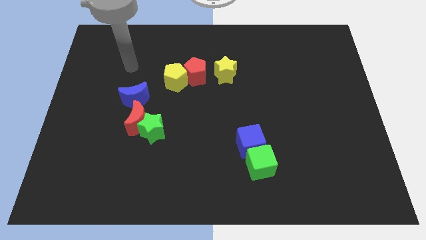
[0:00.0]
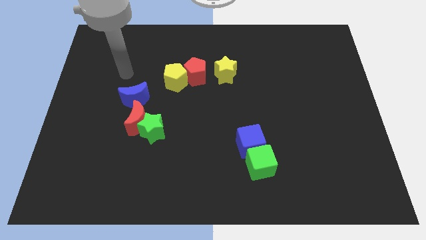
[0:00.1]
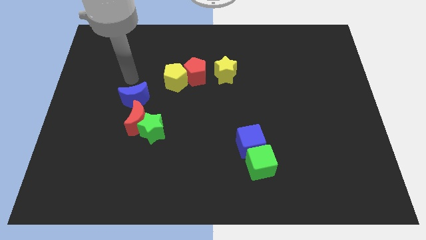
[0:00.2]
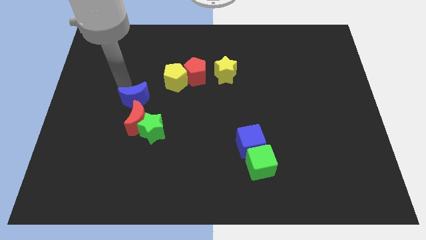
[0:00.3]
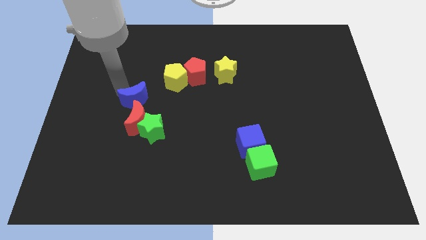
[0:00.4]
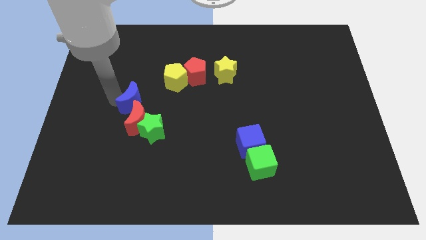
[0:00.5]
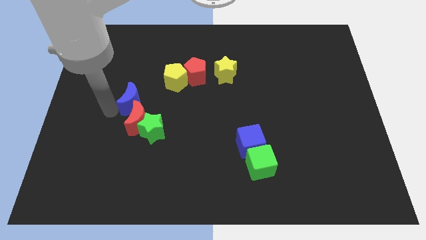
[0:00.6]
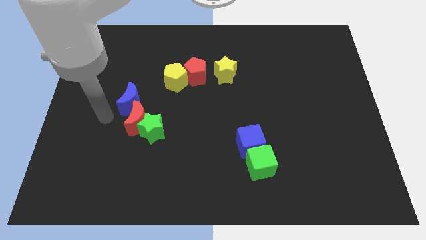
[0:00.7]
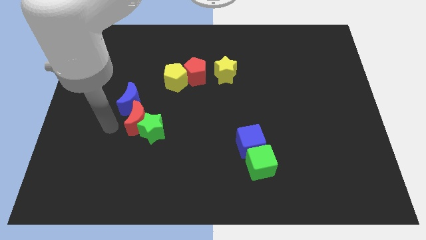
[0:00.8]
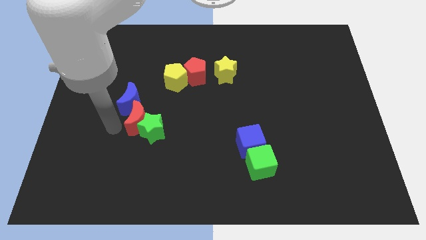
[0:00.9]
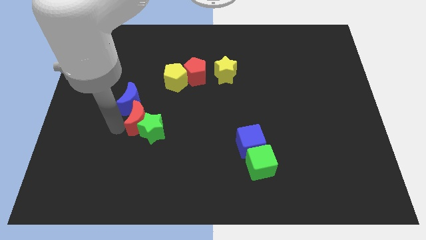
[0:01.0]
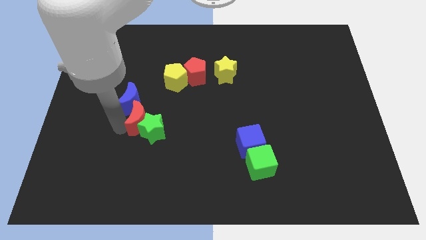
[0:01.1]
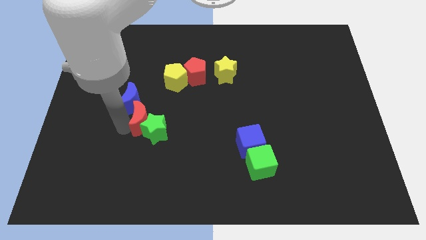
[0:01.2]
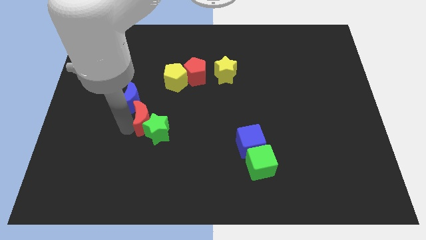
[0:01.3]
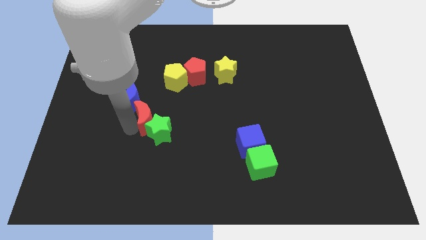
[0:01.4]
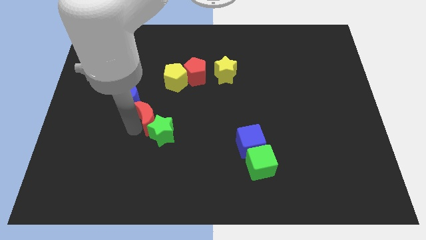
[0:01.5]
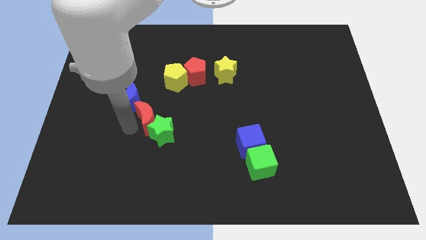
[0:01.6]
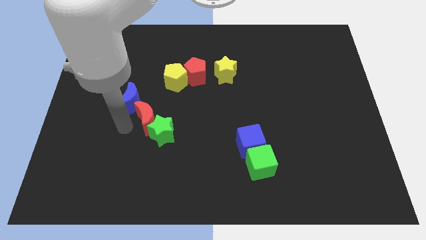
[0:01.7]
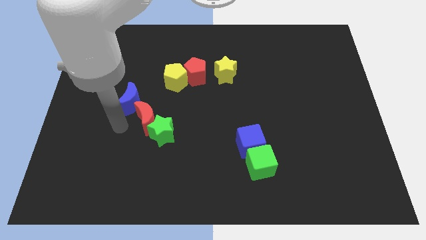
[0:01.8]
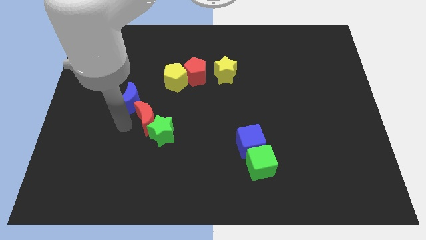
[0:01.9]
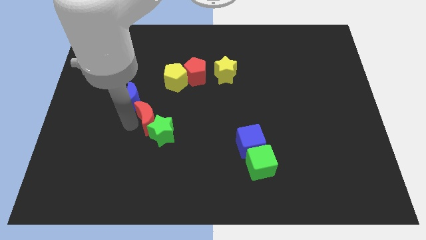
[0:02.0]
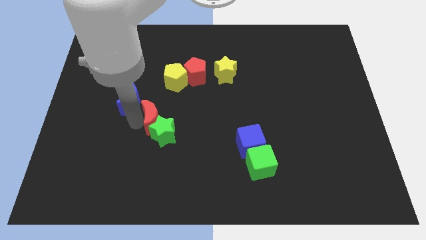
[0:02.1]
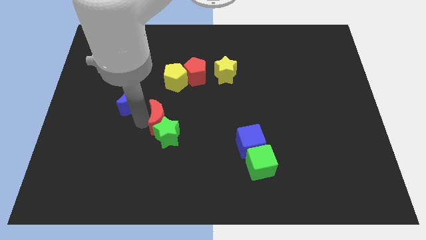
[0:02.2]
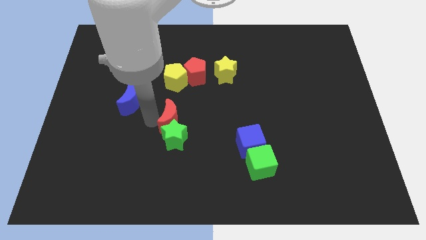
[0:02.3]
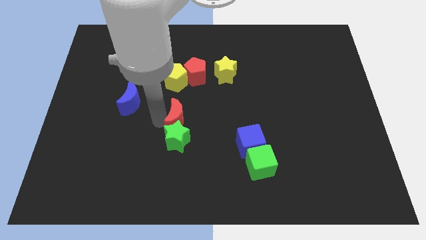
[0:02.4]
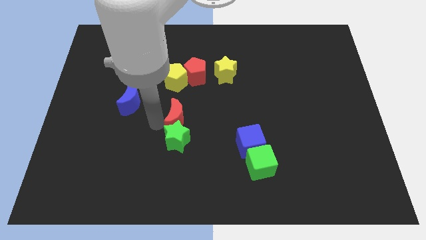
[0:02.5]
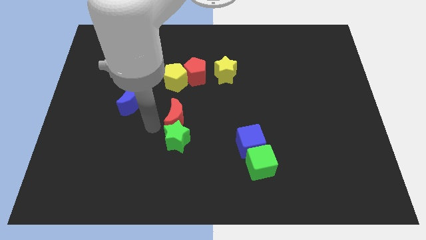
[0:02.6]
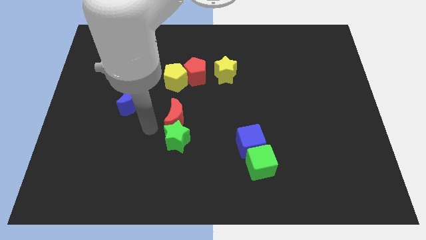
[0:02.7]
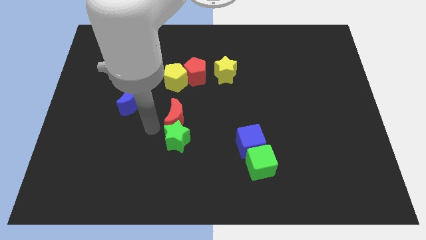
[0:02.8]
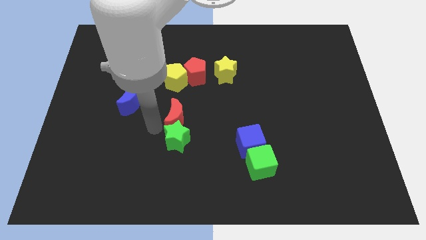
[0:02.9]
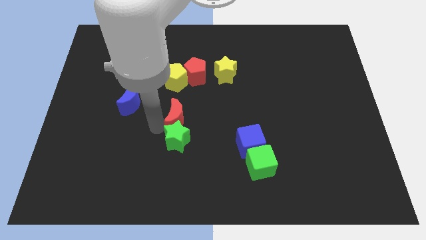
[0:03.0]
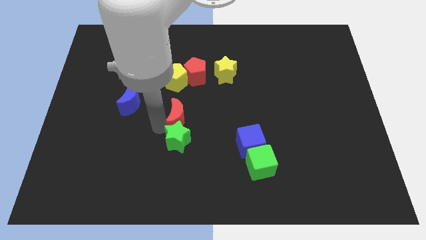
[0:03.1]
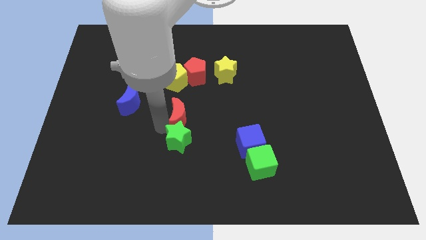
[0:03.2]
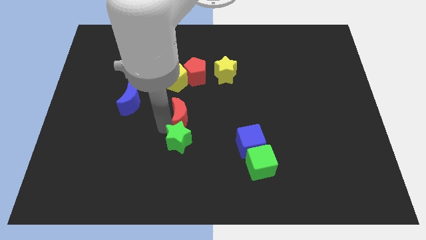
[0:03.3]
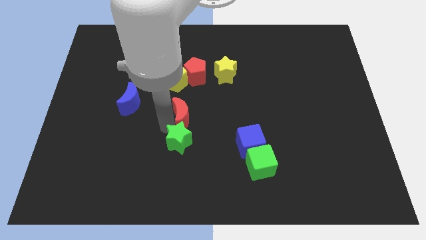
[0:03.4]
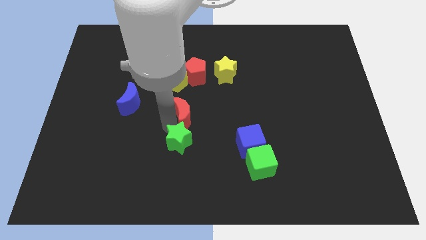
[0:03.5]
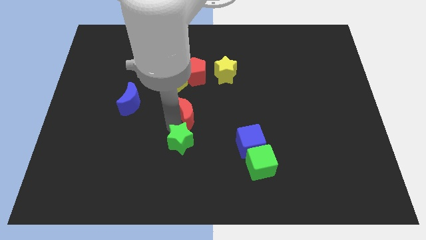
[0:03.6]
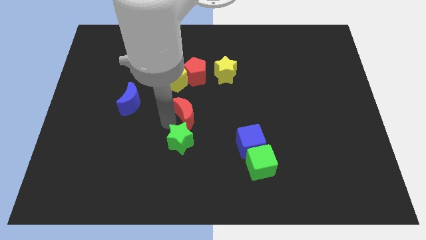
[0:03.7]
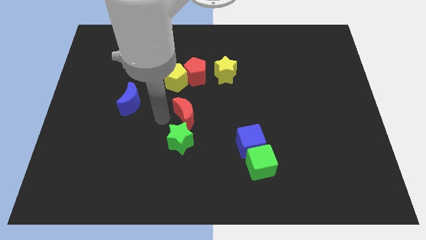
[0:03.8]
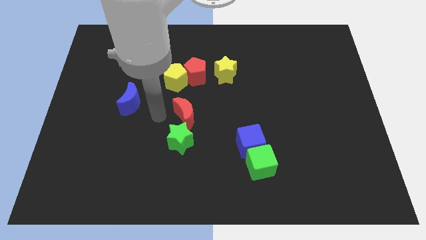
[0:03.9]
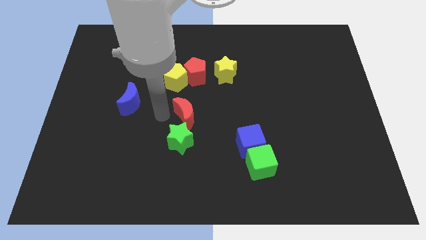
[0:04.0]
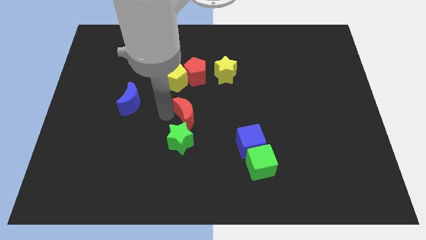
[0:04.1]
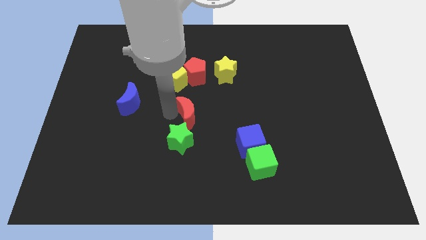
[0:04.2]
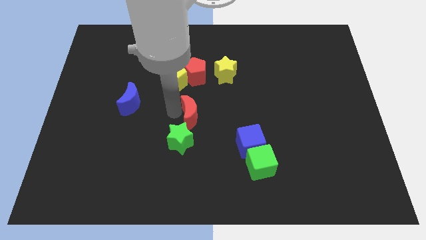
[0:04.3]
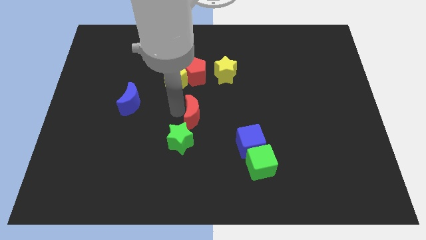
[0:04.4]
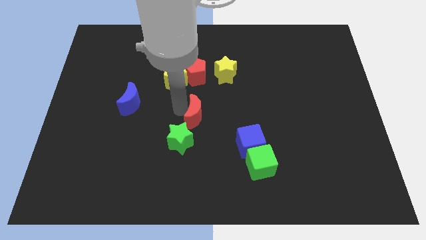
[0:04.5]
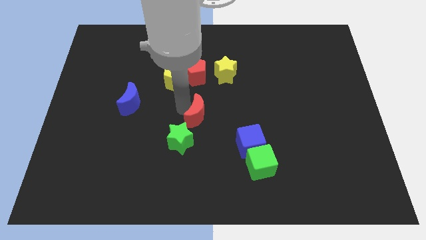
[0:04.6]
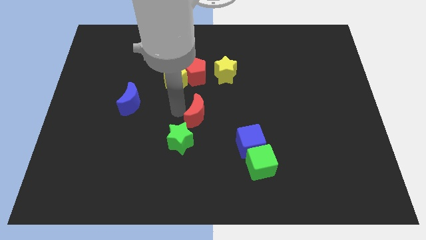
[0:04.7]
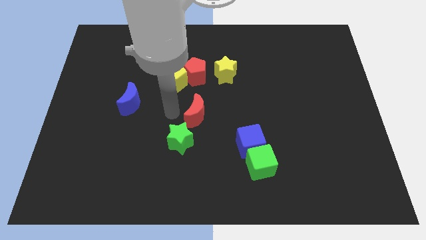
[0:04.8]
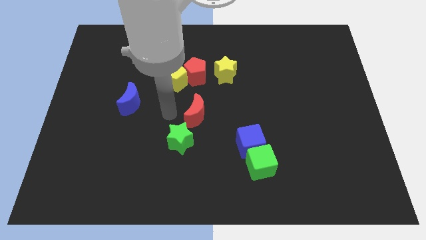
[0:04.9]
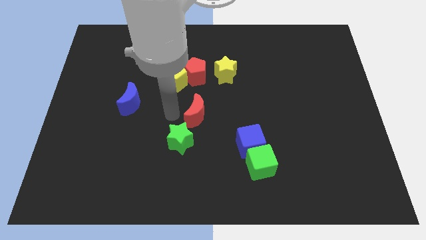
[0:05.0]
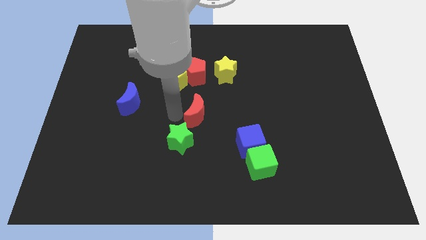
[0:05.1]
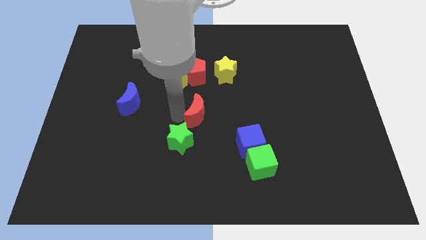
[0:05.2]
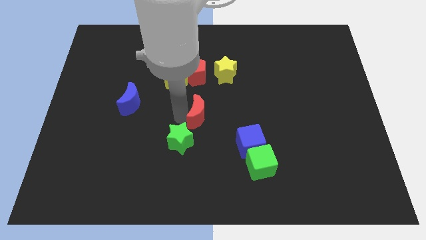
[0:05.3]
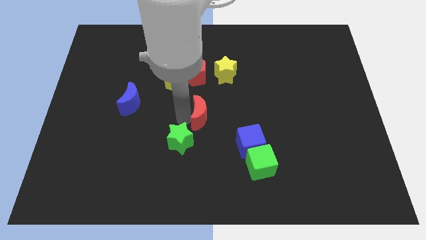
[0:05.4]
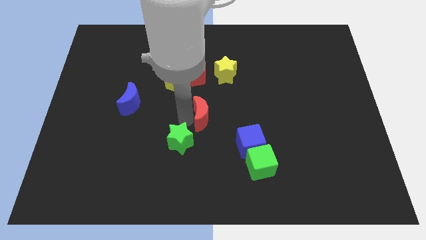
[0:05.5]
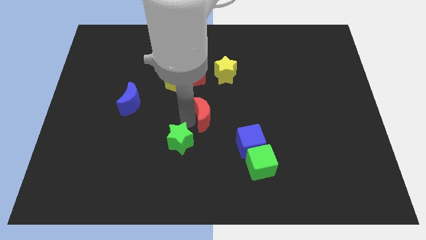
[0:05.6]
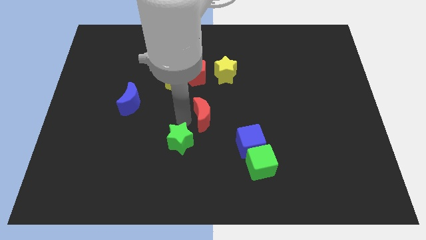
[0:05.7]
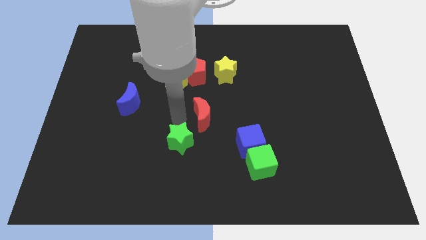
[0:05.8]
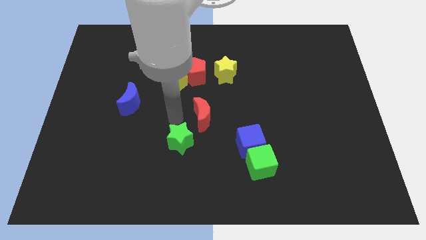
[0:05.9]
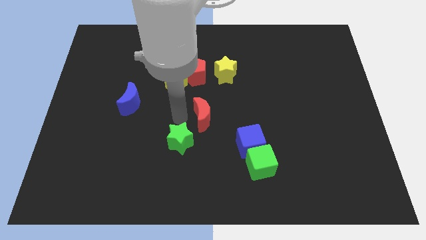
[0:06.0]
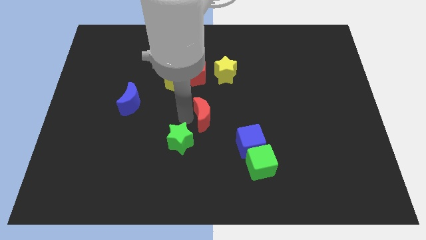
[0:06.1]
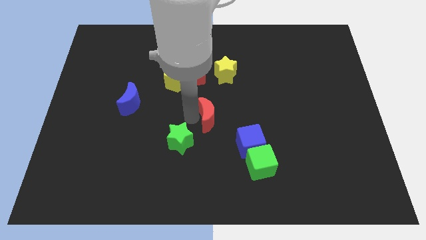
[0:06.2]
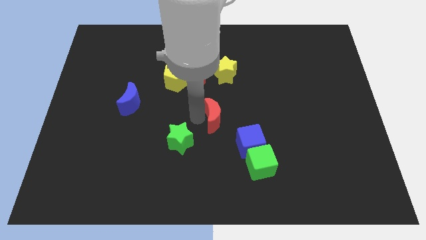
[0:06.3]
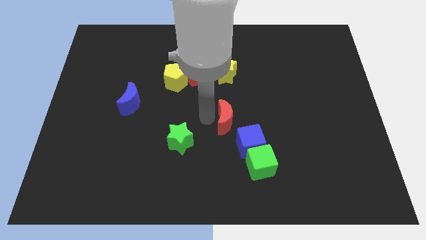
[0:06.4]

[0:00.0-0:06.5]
slide the red moon to the right

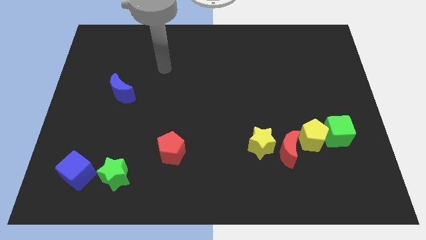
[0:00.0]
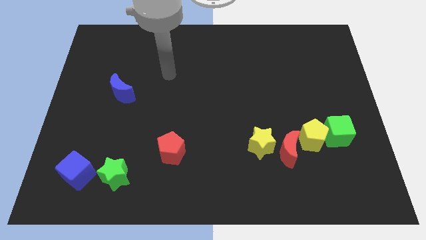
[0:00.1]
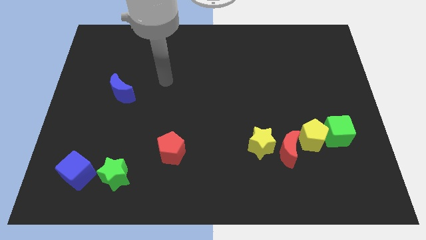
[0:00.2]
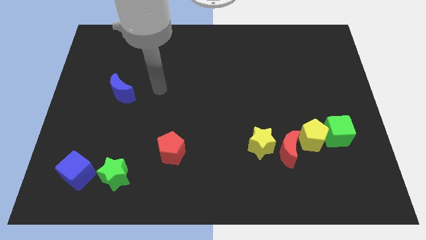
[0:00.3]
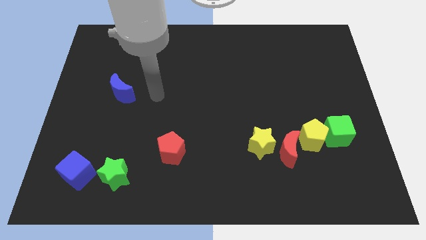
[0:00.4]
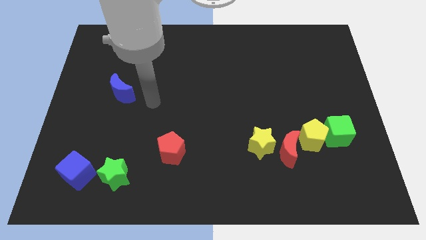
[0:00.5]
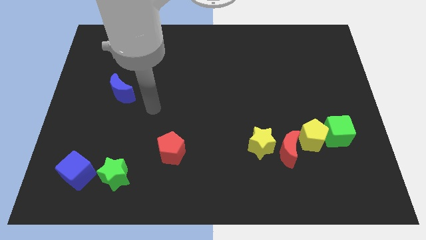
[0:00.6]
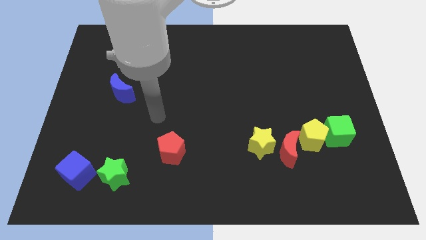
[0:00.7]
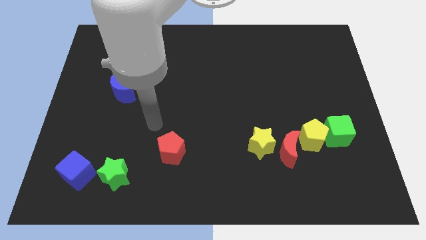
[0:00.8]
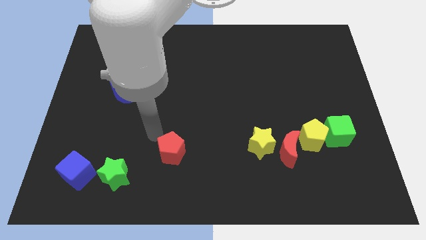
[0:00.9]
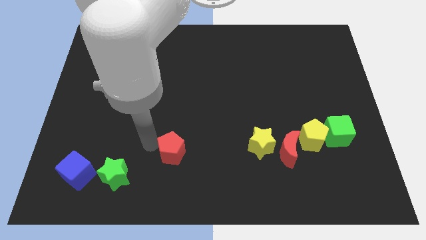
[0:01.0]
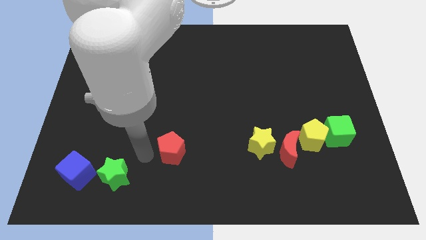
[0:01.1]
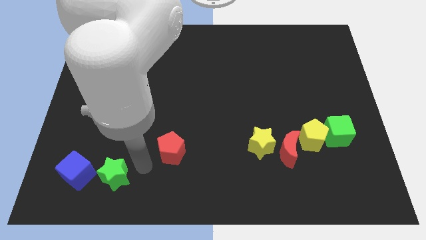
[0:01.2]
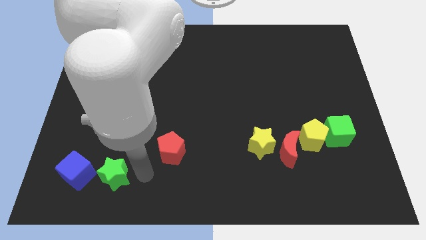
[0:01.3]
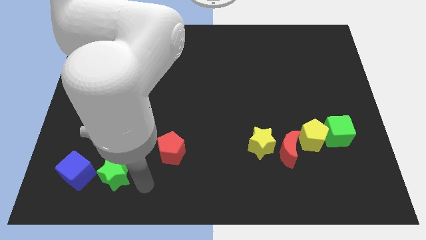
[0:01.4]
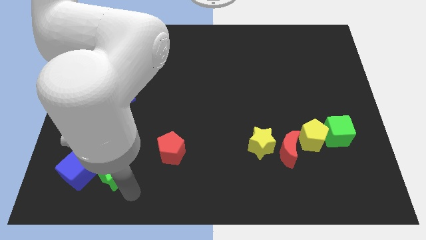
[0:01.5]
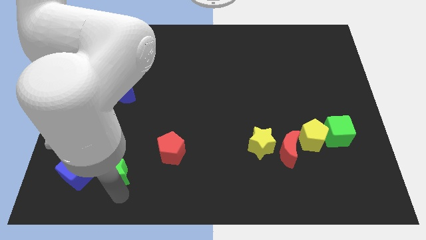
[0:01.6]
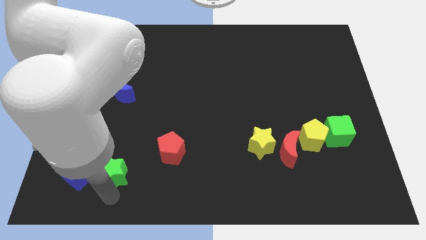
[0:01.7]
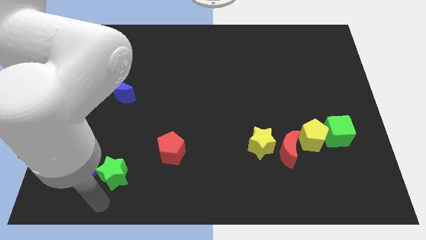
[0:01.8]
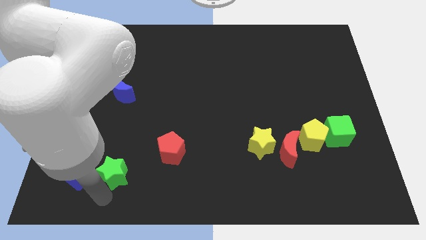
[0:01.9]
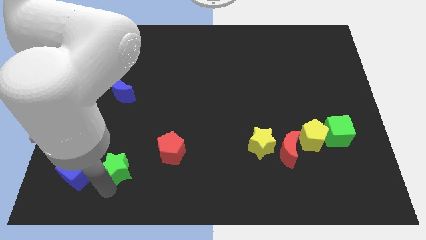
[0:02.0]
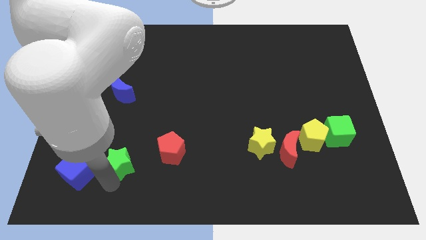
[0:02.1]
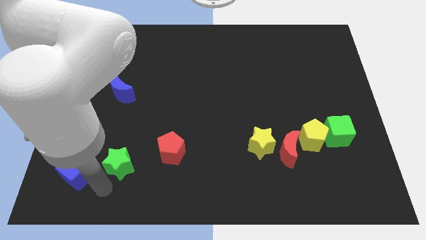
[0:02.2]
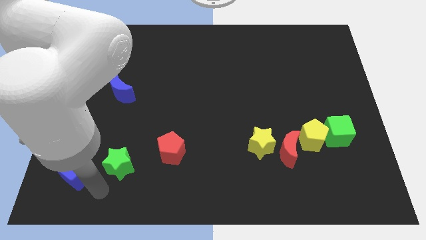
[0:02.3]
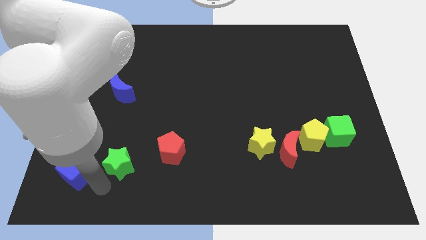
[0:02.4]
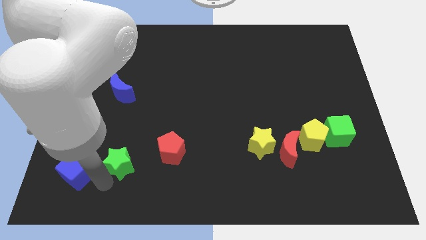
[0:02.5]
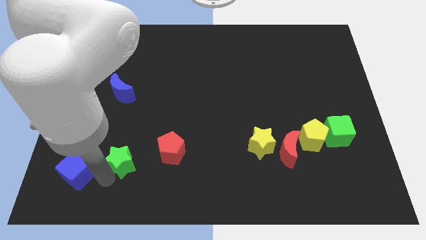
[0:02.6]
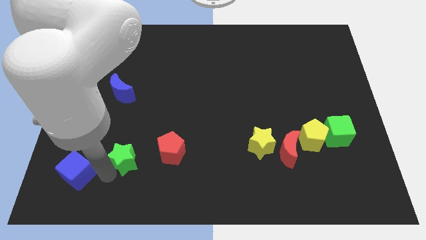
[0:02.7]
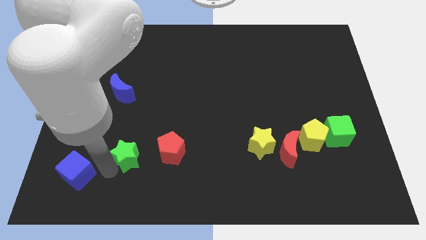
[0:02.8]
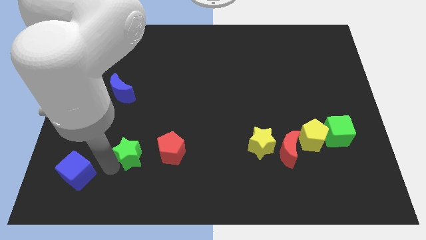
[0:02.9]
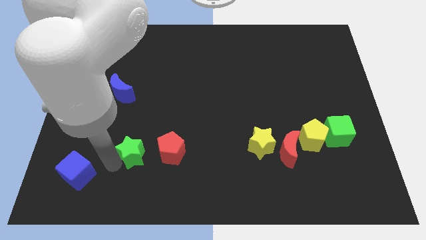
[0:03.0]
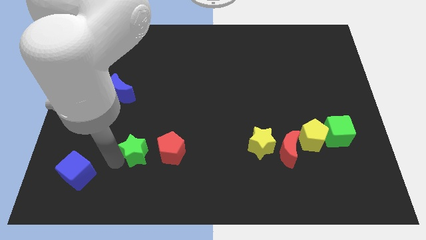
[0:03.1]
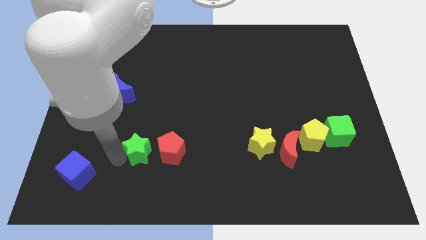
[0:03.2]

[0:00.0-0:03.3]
push the green star diagonally up and to the right slightly
